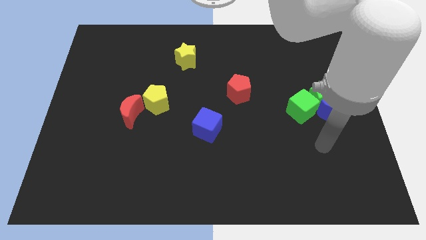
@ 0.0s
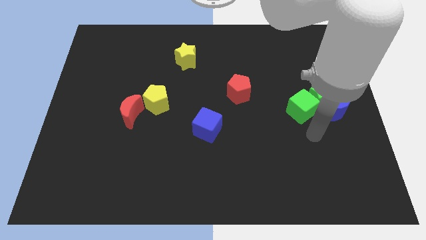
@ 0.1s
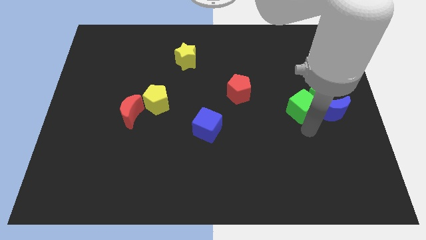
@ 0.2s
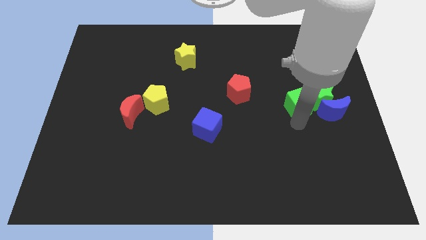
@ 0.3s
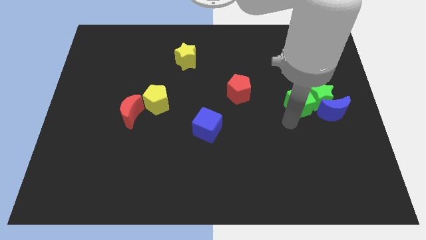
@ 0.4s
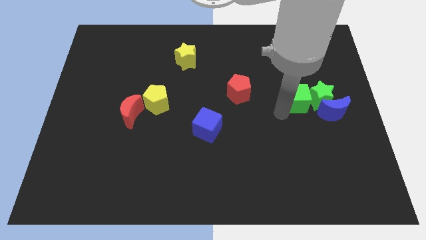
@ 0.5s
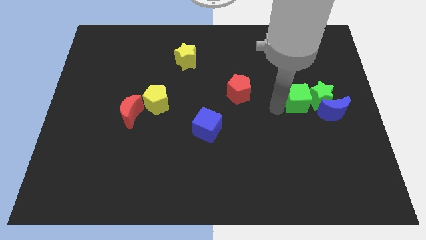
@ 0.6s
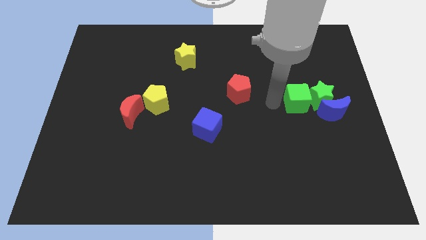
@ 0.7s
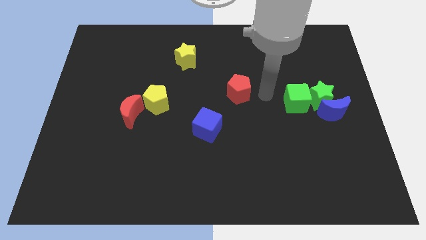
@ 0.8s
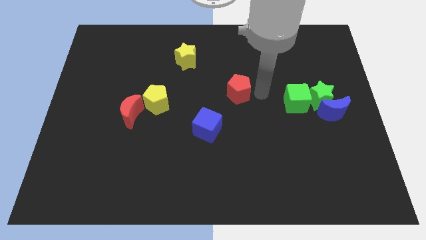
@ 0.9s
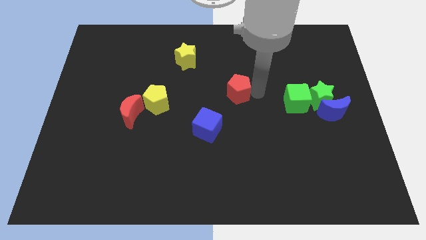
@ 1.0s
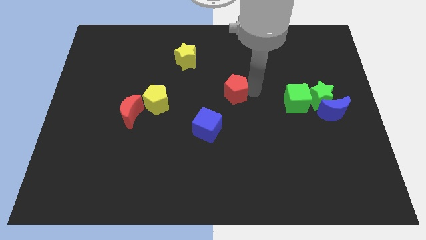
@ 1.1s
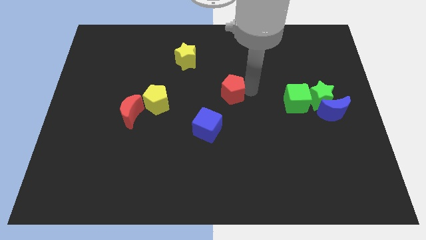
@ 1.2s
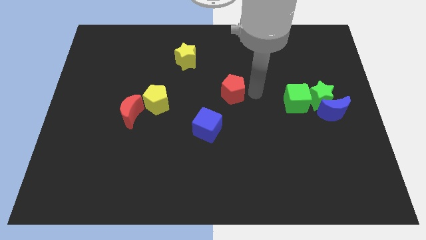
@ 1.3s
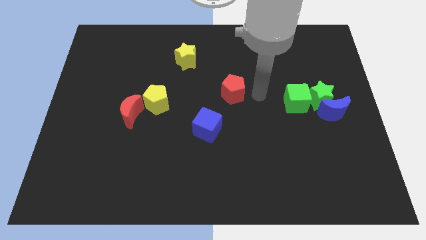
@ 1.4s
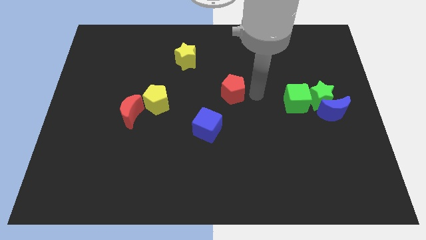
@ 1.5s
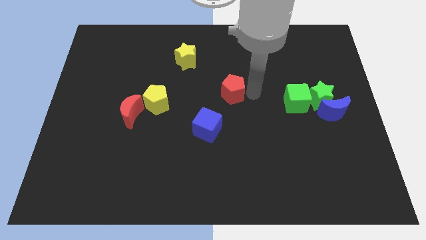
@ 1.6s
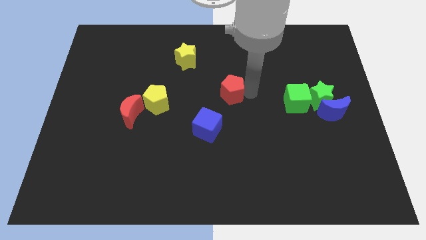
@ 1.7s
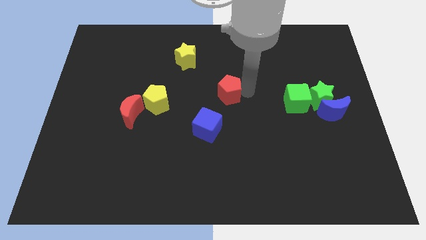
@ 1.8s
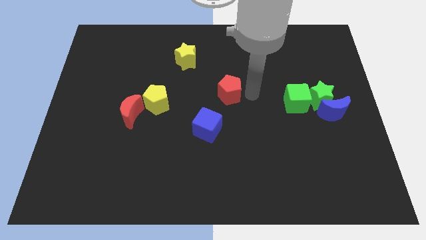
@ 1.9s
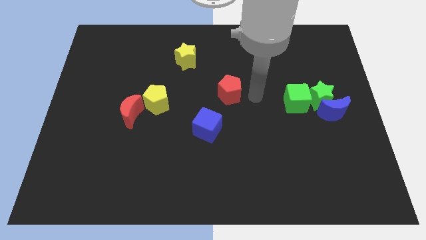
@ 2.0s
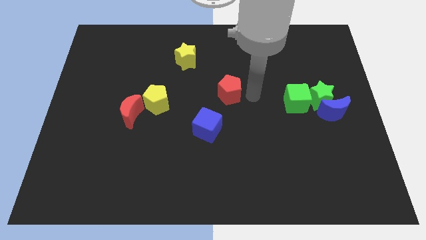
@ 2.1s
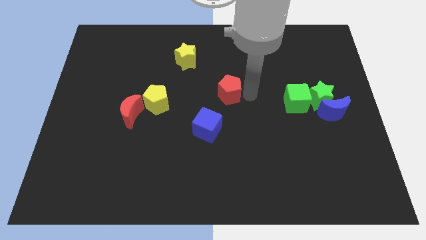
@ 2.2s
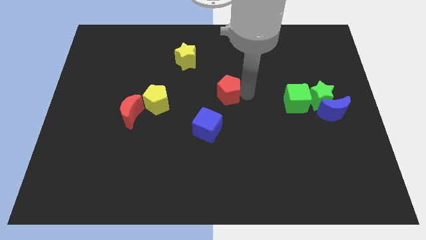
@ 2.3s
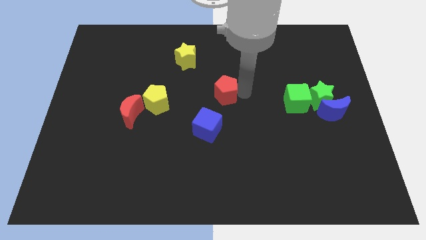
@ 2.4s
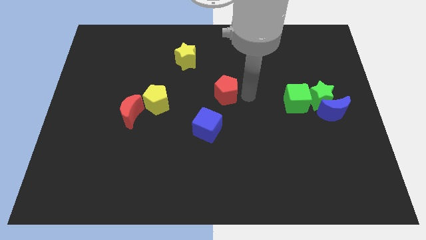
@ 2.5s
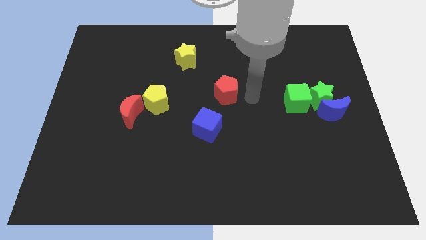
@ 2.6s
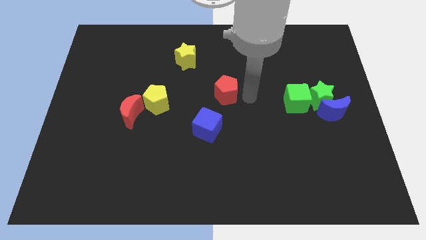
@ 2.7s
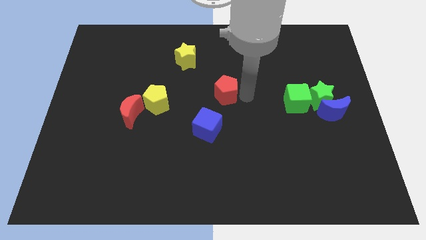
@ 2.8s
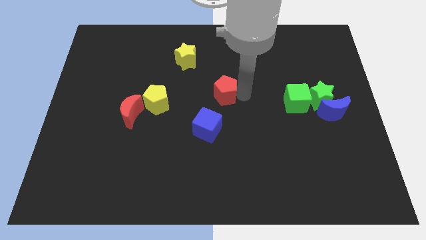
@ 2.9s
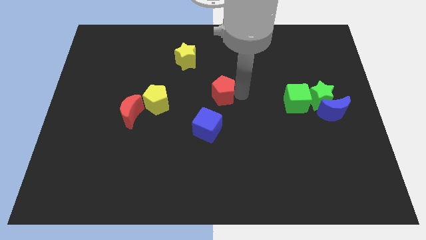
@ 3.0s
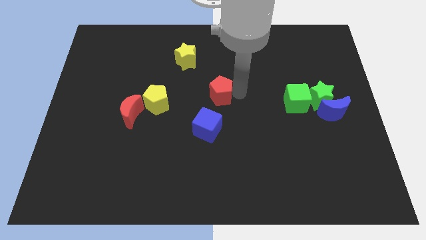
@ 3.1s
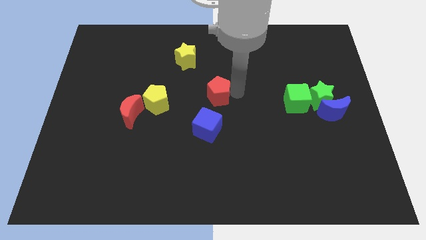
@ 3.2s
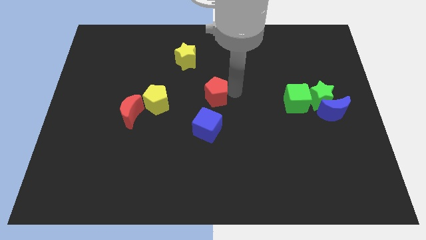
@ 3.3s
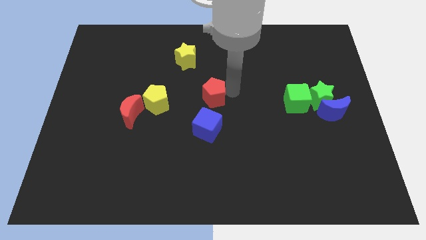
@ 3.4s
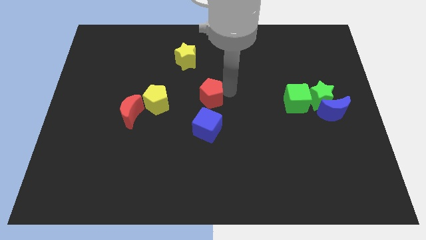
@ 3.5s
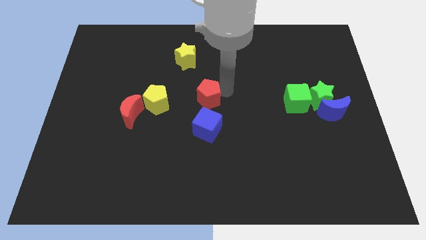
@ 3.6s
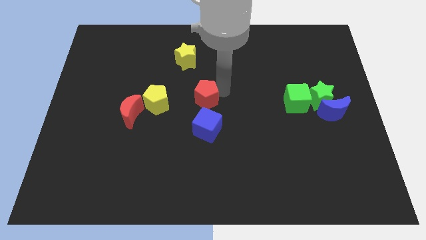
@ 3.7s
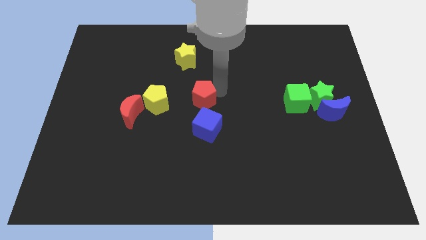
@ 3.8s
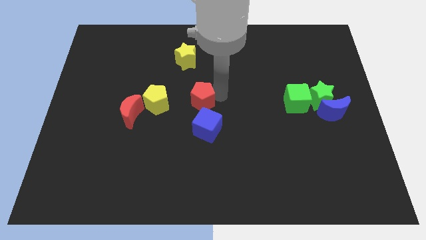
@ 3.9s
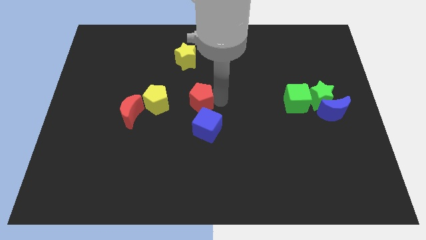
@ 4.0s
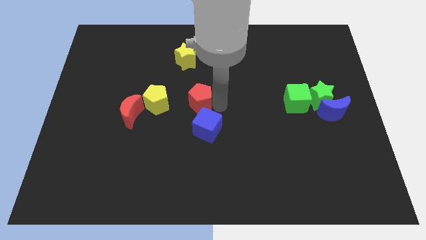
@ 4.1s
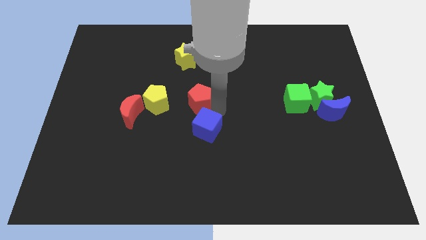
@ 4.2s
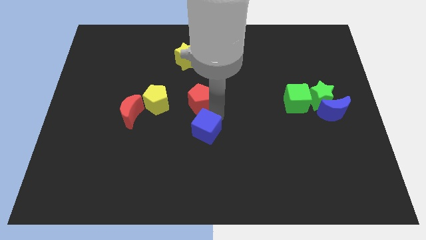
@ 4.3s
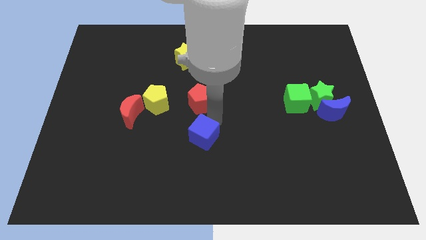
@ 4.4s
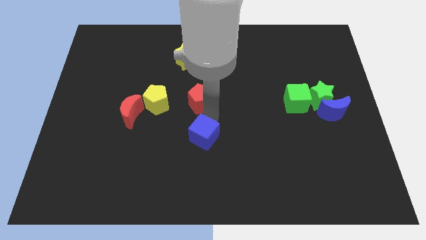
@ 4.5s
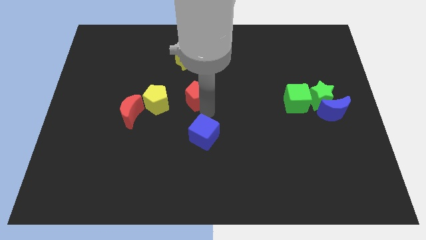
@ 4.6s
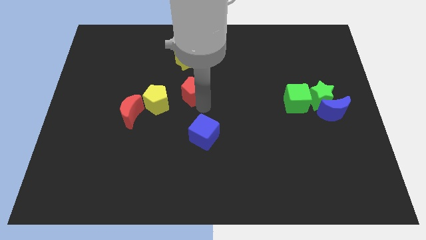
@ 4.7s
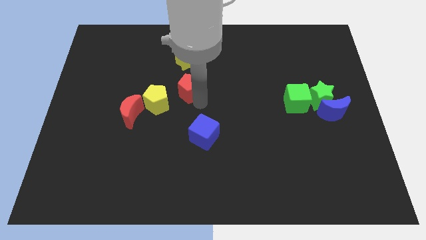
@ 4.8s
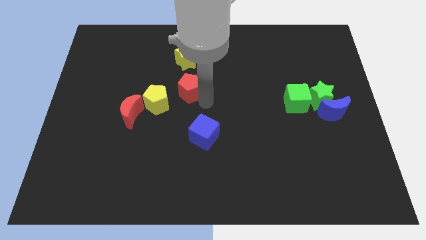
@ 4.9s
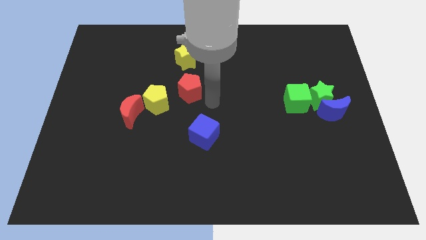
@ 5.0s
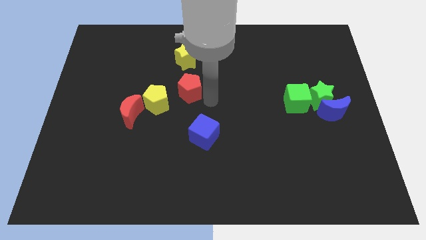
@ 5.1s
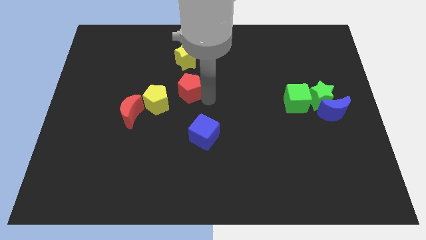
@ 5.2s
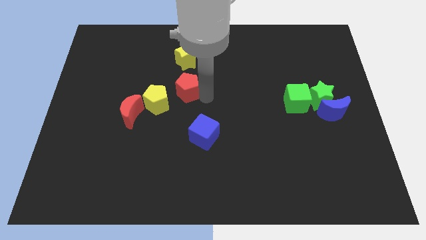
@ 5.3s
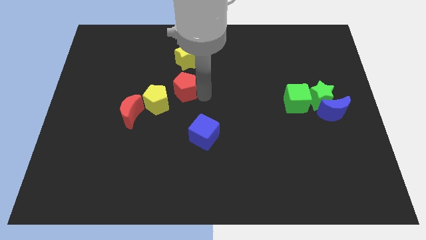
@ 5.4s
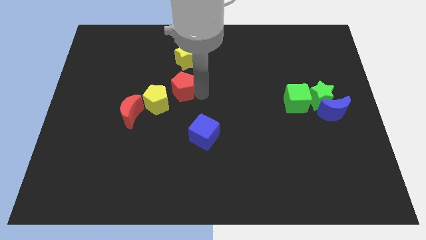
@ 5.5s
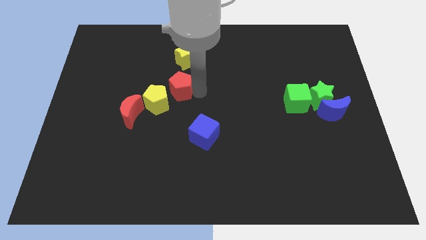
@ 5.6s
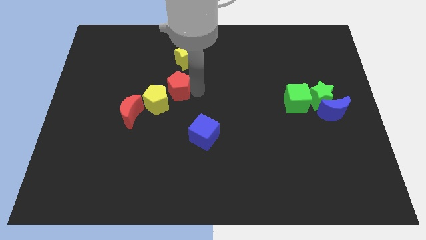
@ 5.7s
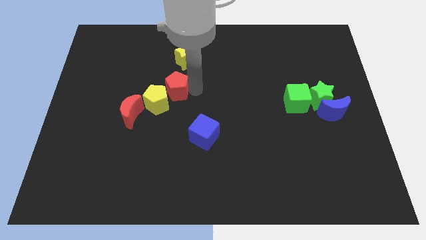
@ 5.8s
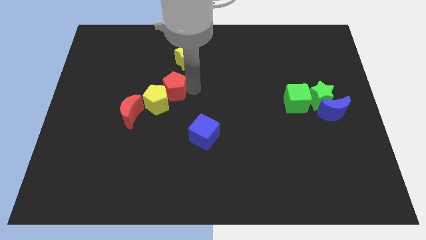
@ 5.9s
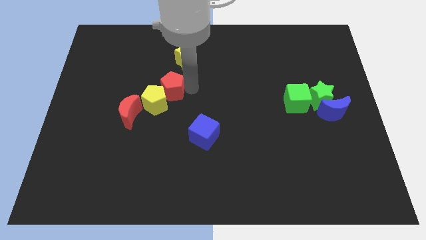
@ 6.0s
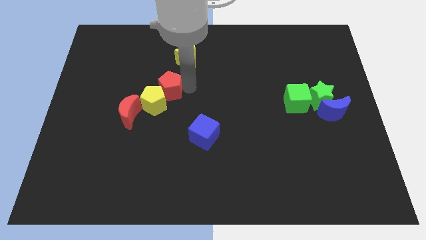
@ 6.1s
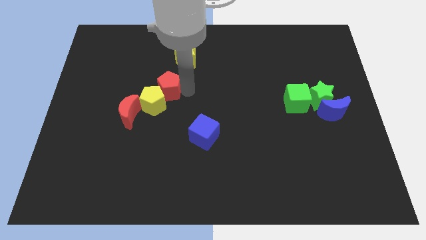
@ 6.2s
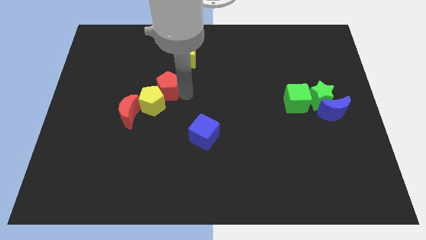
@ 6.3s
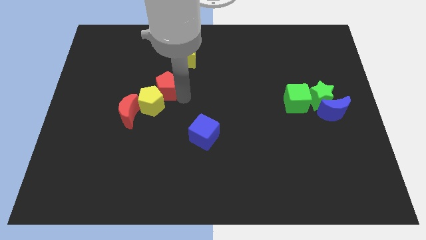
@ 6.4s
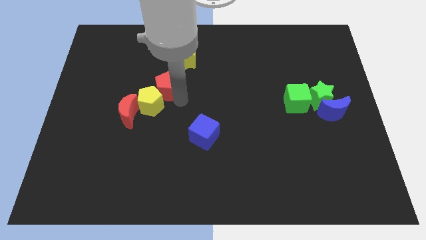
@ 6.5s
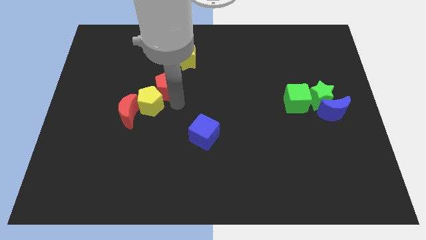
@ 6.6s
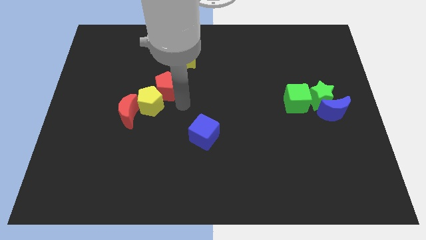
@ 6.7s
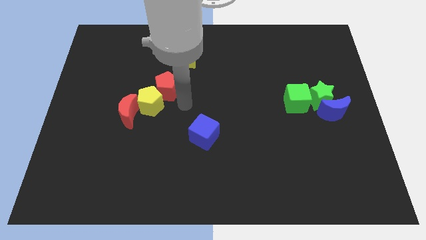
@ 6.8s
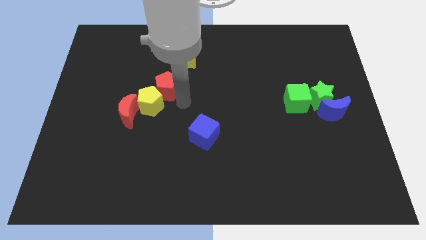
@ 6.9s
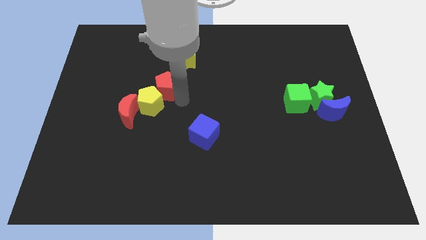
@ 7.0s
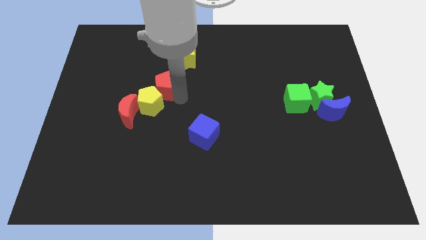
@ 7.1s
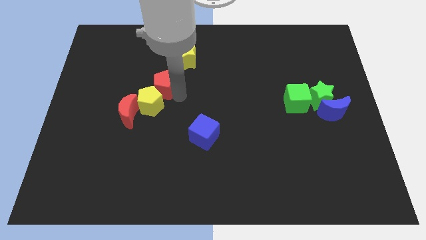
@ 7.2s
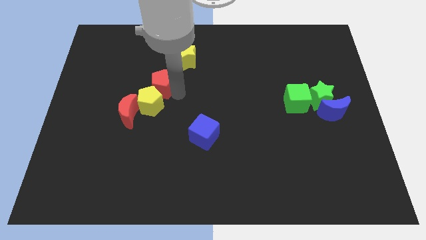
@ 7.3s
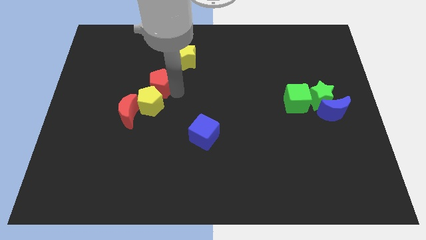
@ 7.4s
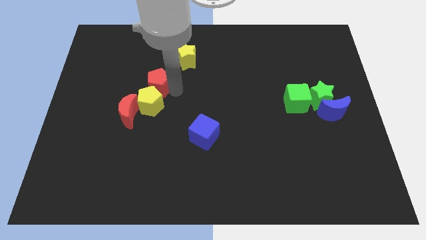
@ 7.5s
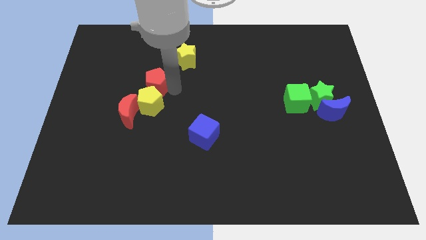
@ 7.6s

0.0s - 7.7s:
move the red pentagon left

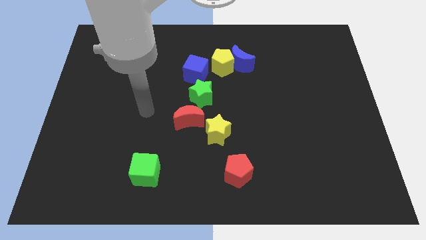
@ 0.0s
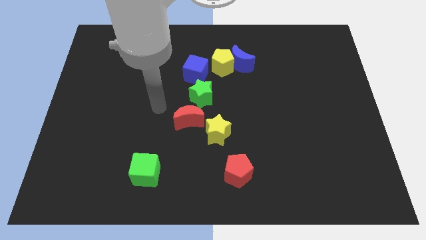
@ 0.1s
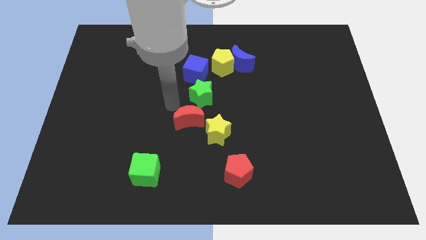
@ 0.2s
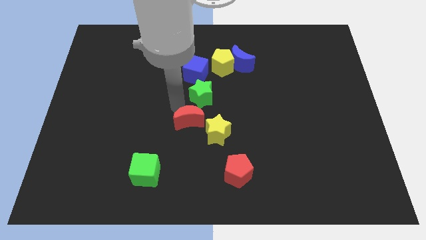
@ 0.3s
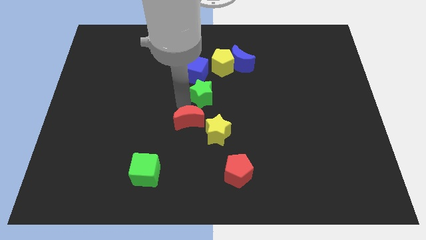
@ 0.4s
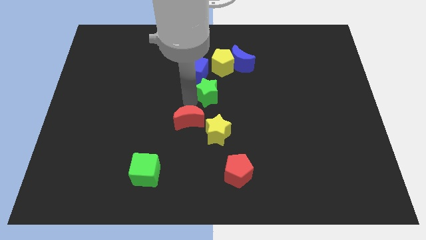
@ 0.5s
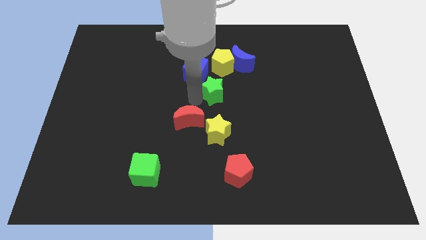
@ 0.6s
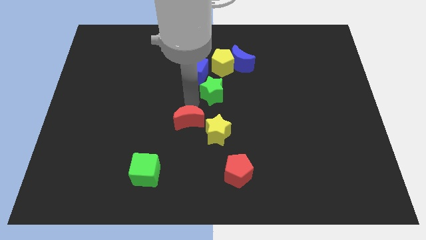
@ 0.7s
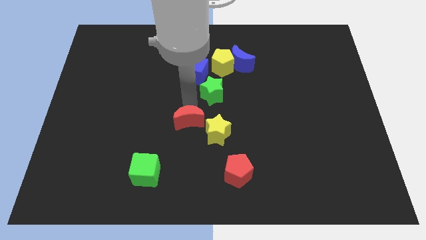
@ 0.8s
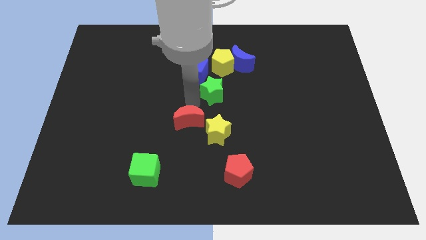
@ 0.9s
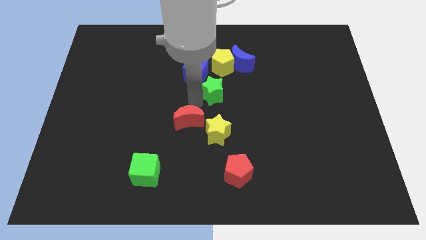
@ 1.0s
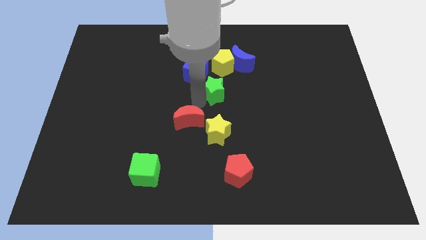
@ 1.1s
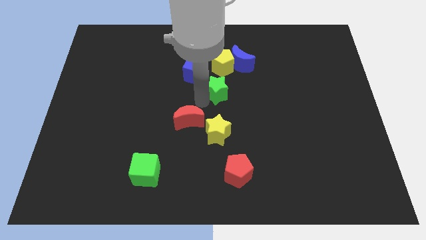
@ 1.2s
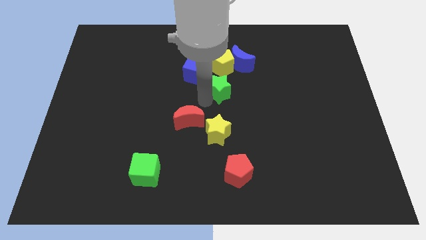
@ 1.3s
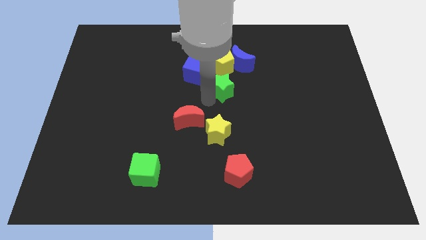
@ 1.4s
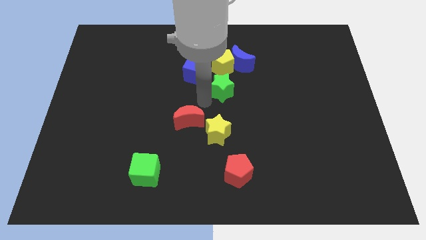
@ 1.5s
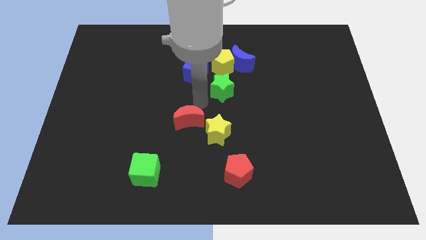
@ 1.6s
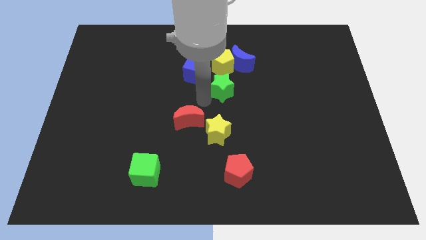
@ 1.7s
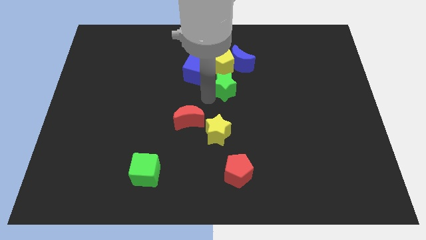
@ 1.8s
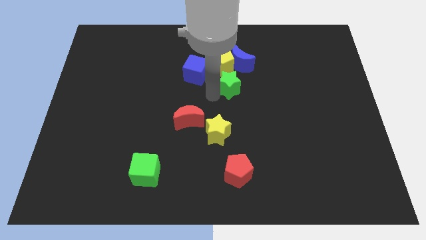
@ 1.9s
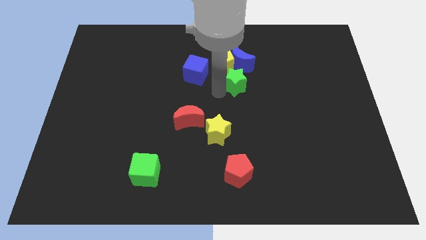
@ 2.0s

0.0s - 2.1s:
push the green star upwards and right diagonally somewhat
